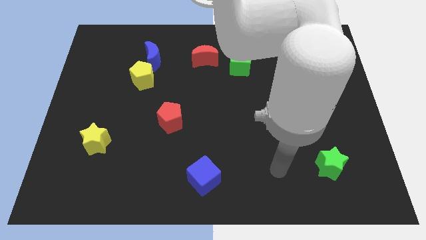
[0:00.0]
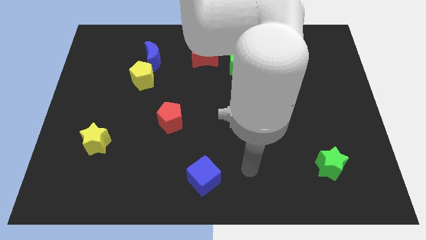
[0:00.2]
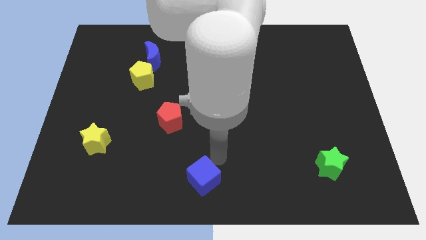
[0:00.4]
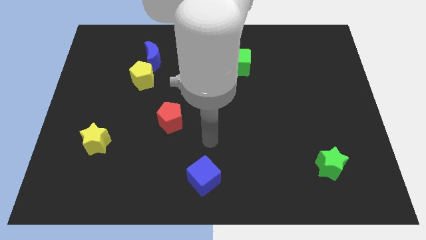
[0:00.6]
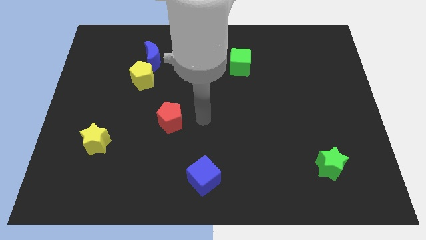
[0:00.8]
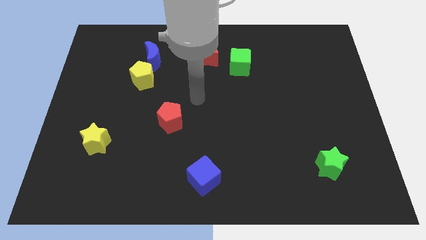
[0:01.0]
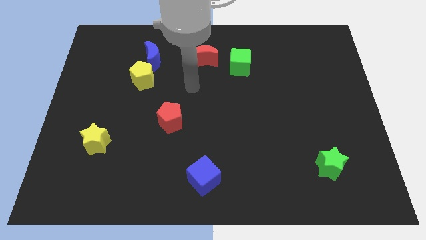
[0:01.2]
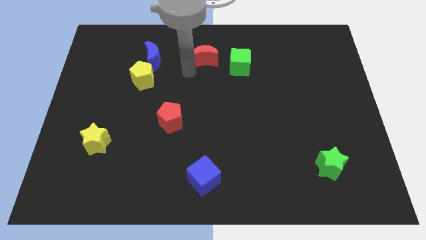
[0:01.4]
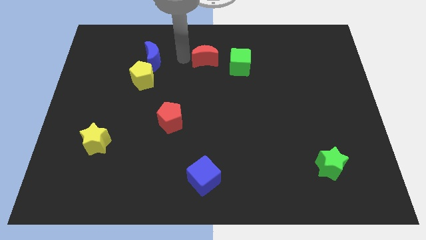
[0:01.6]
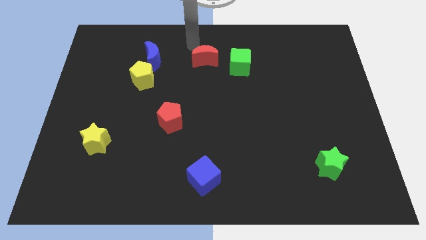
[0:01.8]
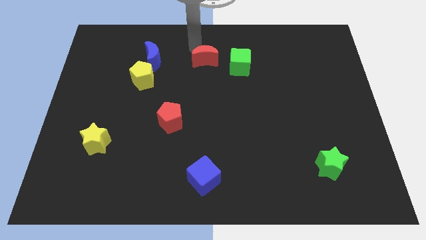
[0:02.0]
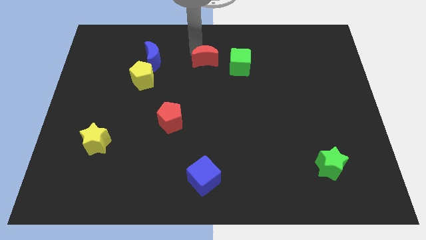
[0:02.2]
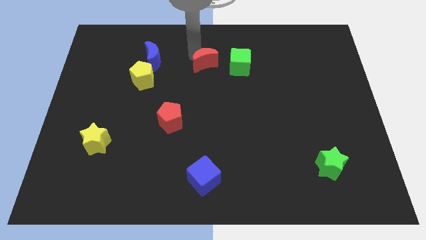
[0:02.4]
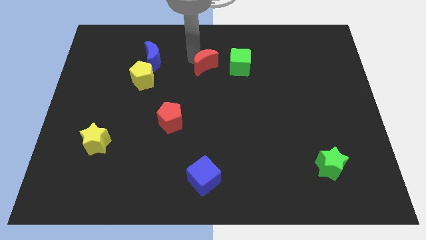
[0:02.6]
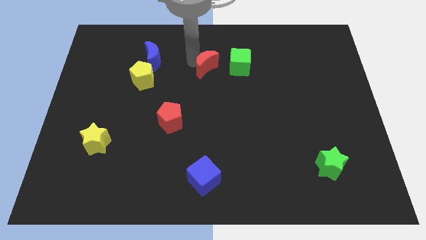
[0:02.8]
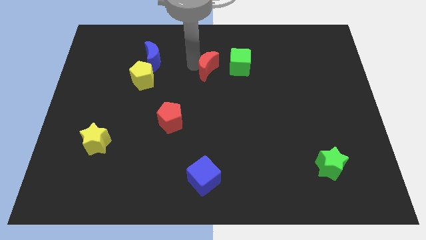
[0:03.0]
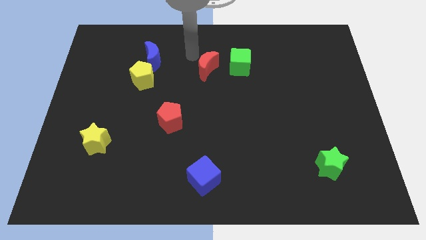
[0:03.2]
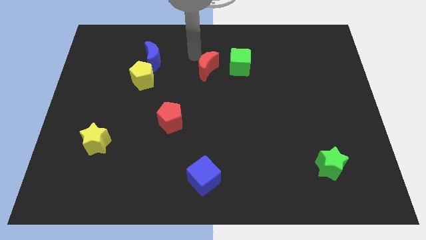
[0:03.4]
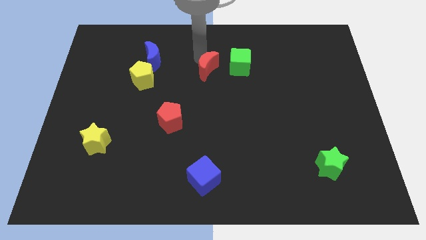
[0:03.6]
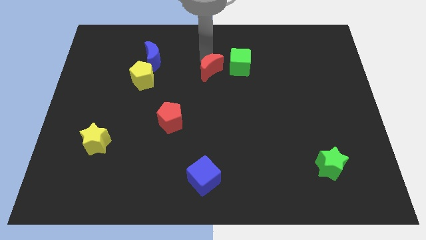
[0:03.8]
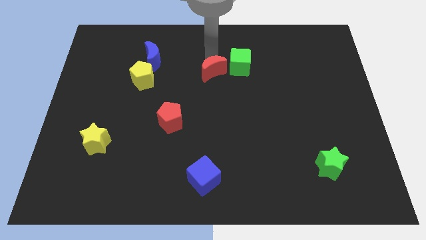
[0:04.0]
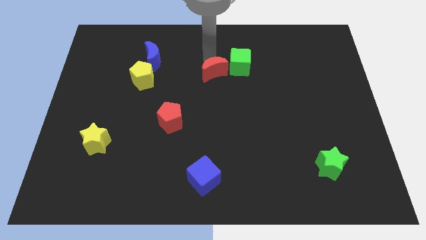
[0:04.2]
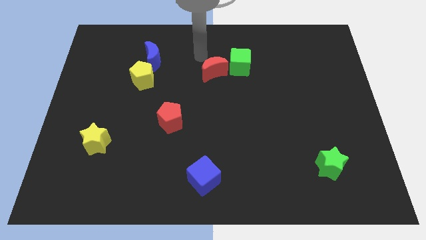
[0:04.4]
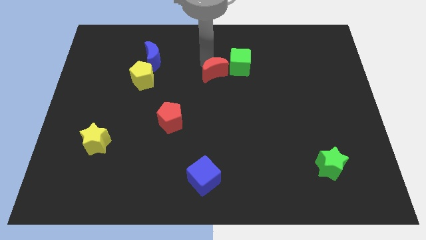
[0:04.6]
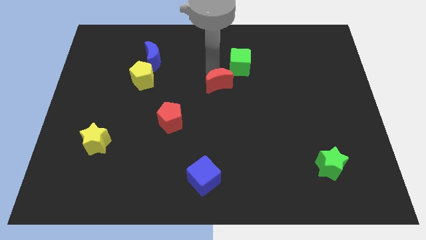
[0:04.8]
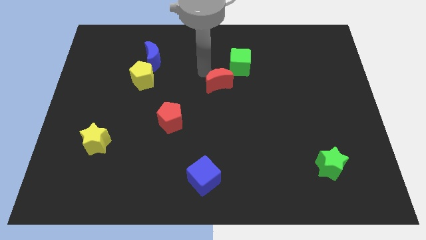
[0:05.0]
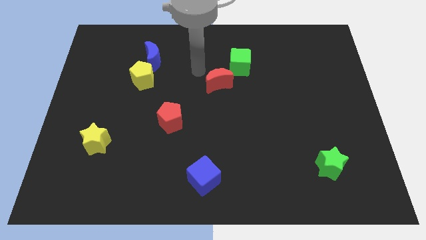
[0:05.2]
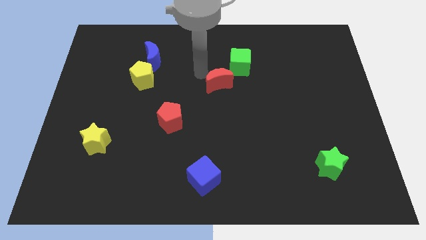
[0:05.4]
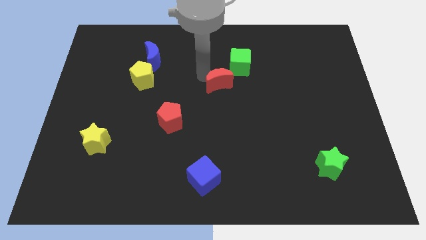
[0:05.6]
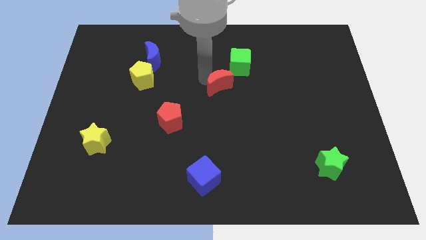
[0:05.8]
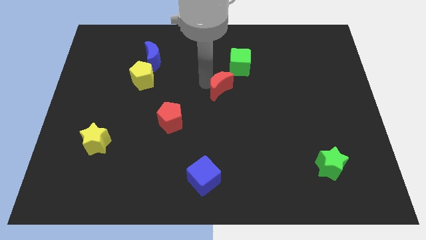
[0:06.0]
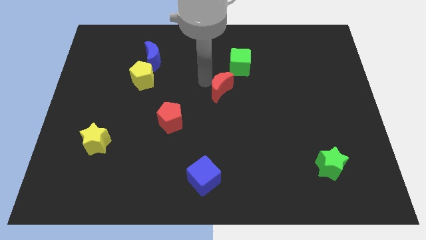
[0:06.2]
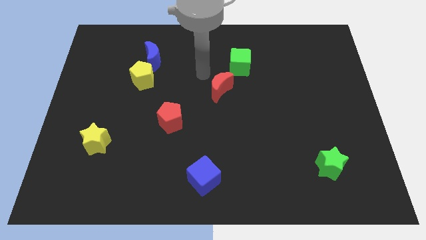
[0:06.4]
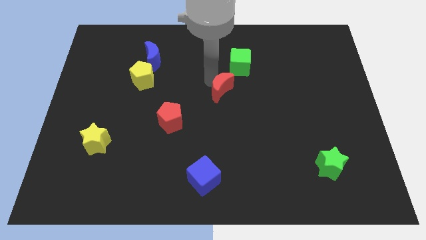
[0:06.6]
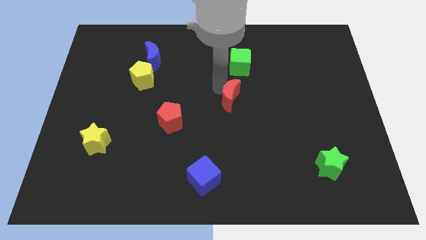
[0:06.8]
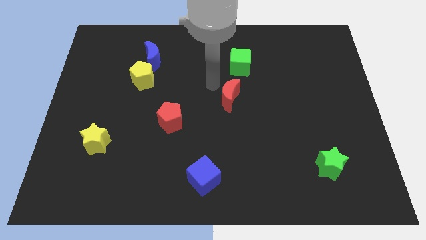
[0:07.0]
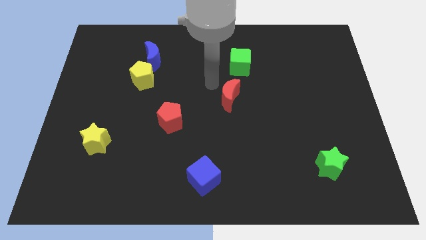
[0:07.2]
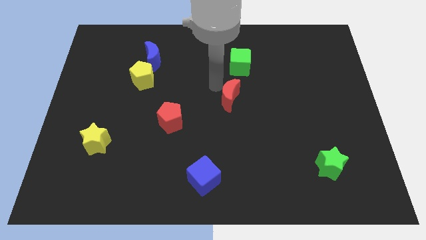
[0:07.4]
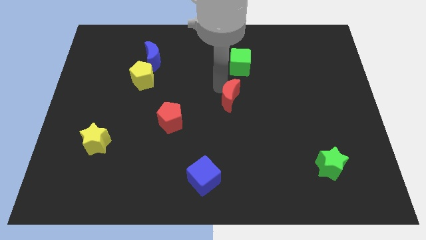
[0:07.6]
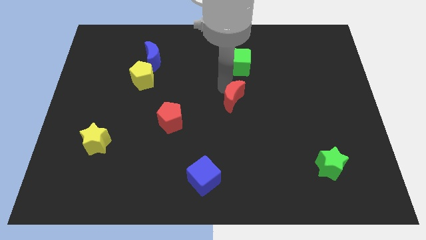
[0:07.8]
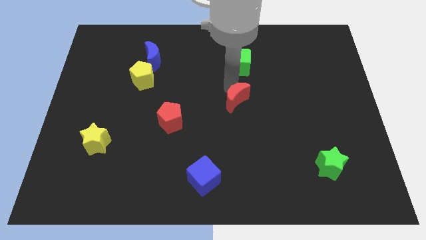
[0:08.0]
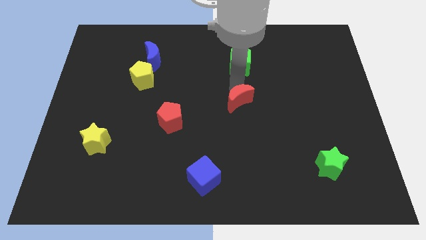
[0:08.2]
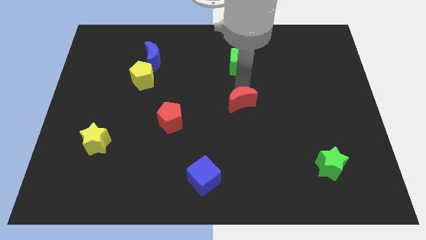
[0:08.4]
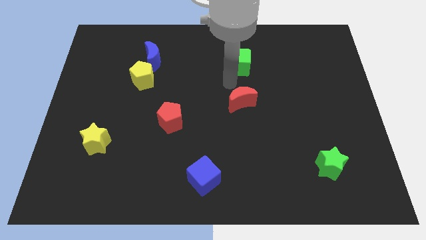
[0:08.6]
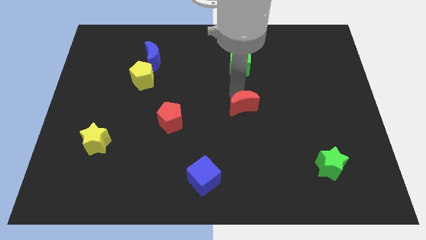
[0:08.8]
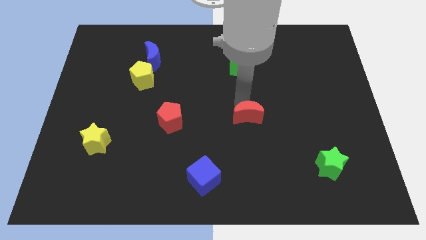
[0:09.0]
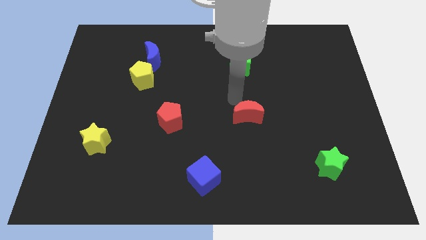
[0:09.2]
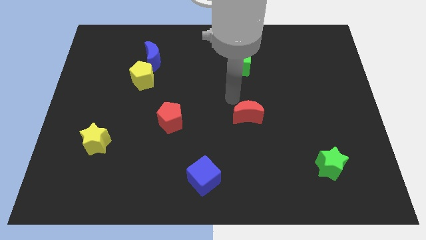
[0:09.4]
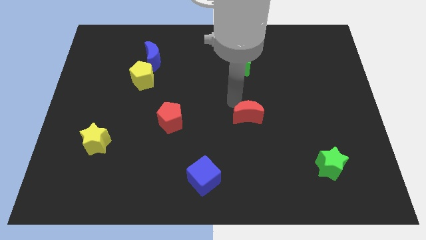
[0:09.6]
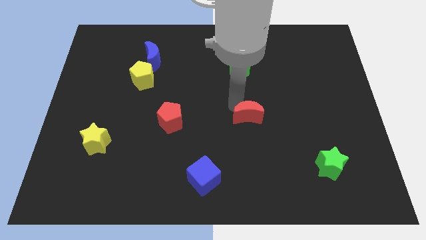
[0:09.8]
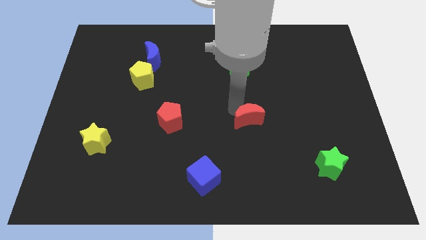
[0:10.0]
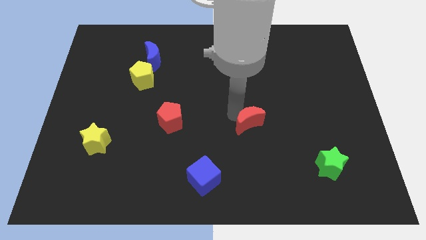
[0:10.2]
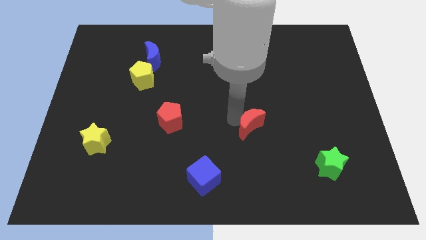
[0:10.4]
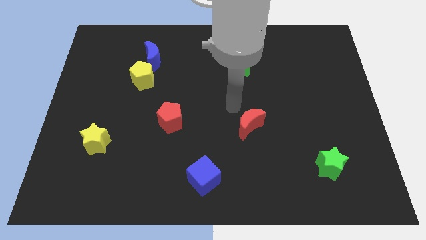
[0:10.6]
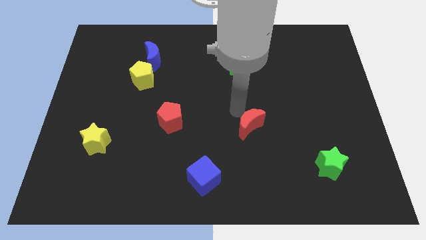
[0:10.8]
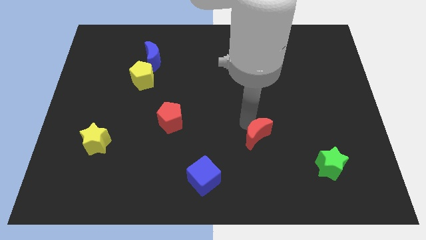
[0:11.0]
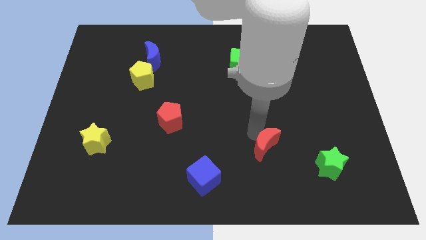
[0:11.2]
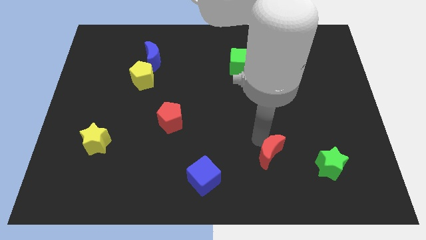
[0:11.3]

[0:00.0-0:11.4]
move the red moon to the left of the green star

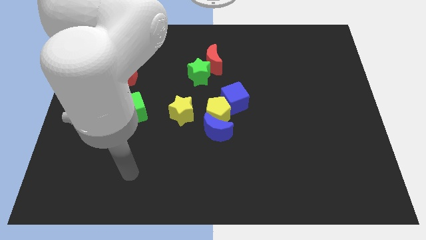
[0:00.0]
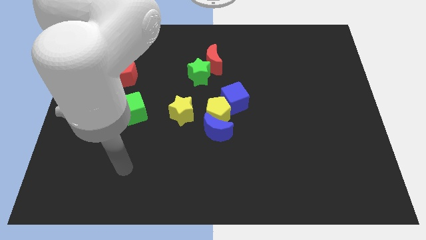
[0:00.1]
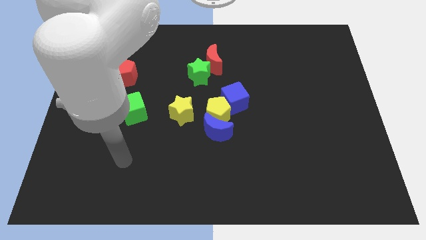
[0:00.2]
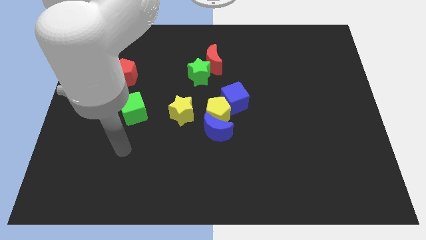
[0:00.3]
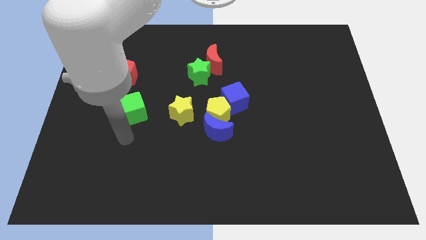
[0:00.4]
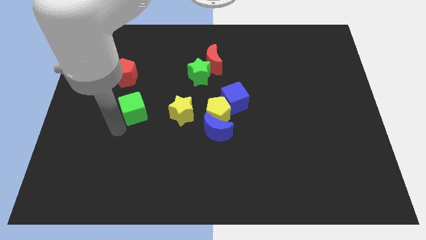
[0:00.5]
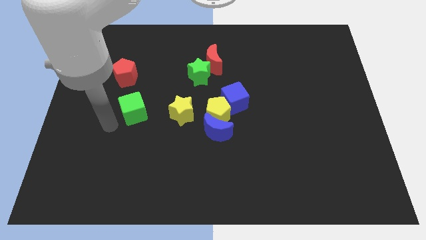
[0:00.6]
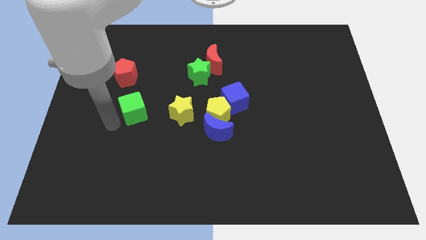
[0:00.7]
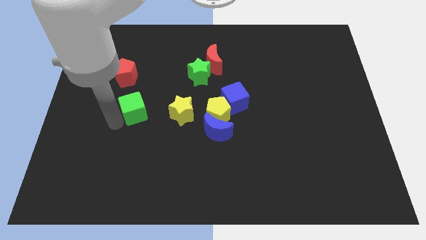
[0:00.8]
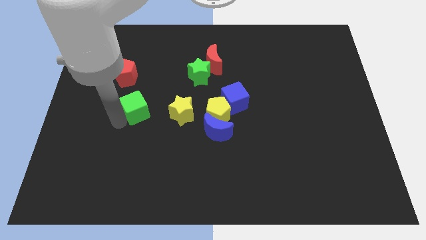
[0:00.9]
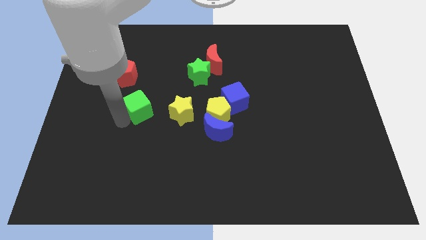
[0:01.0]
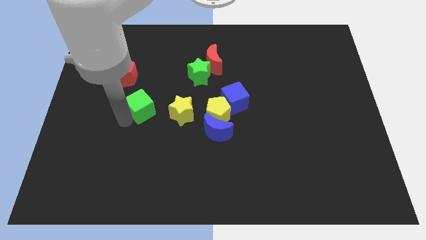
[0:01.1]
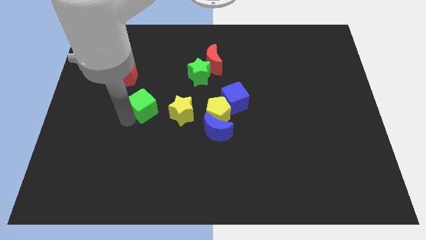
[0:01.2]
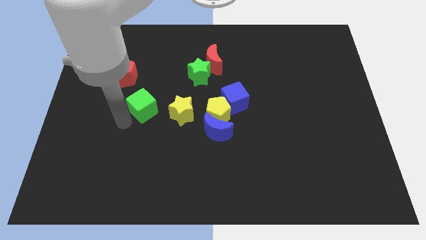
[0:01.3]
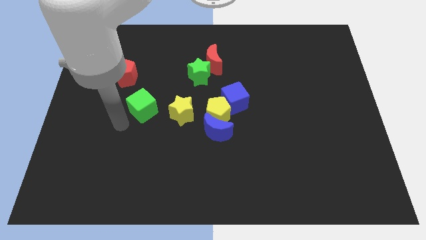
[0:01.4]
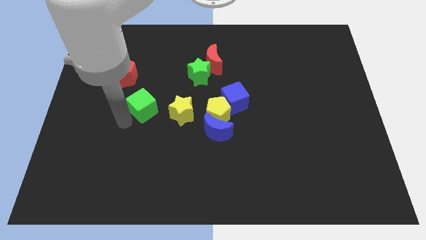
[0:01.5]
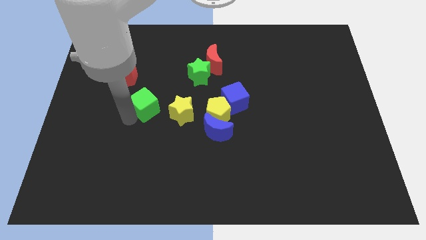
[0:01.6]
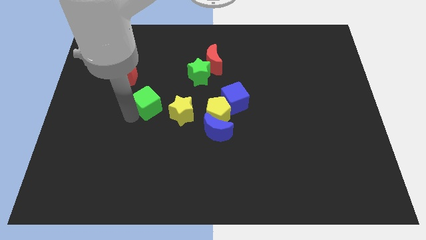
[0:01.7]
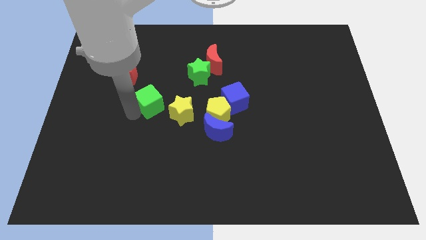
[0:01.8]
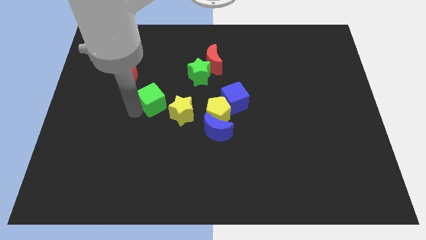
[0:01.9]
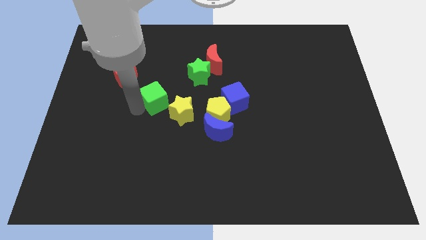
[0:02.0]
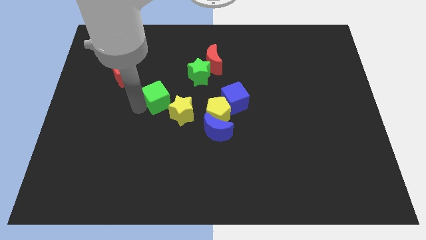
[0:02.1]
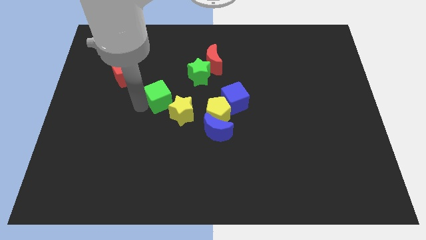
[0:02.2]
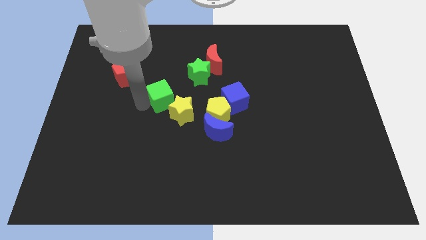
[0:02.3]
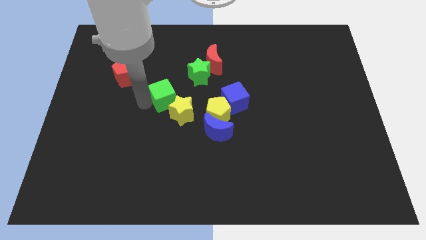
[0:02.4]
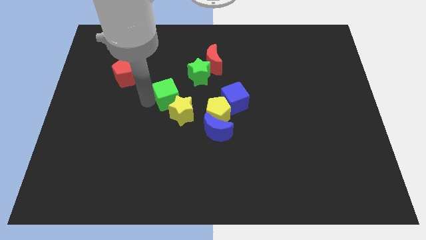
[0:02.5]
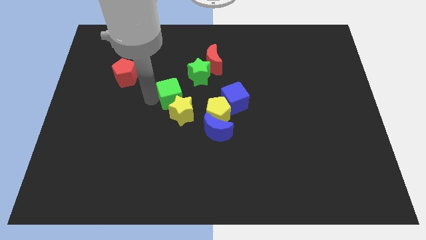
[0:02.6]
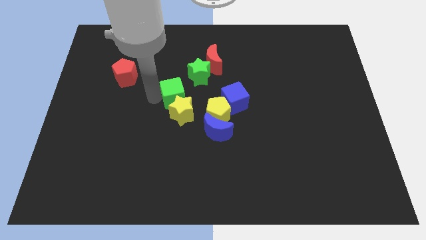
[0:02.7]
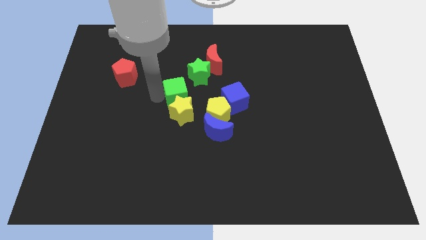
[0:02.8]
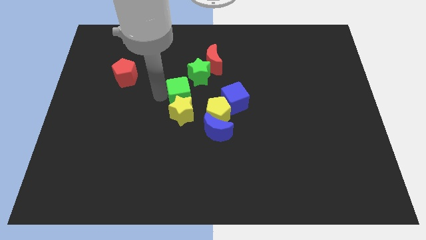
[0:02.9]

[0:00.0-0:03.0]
slide the green cube below the green star
